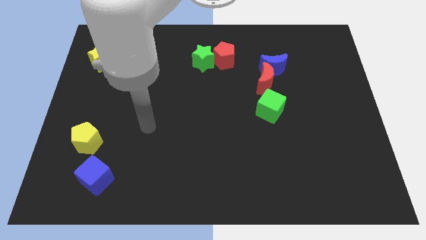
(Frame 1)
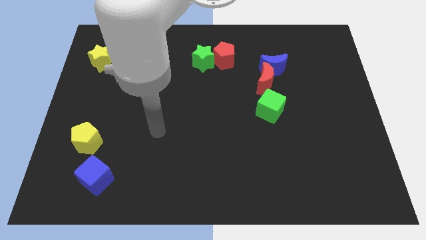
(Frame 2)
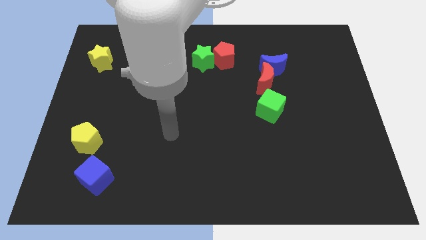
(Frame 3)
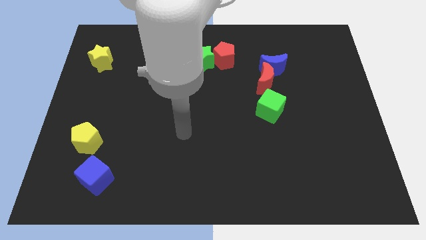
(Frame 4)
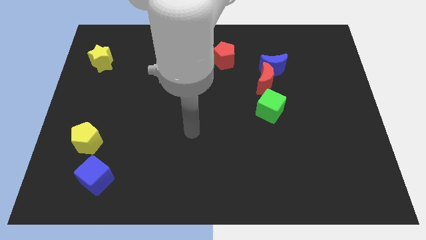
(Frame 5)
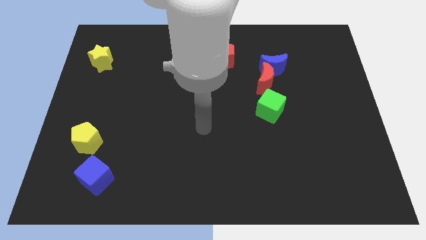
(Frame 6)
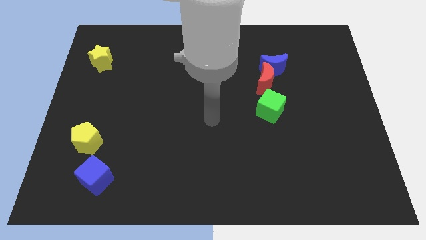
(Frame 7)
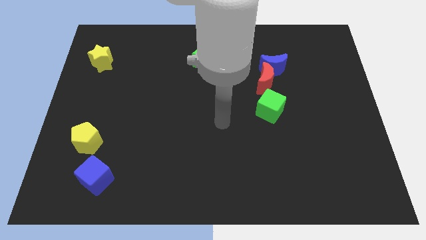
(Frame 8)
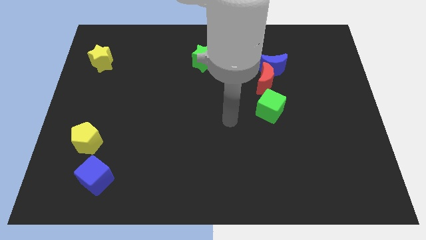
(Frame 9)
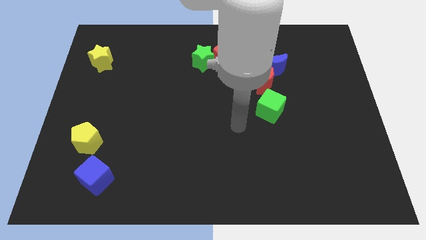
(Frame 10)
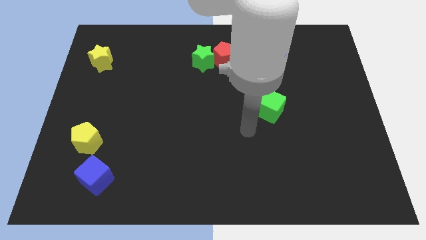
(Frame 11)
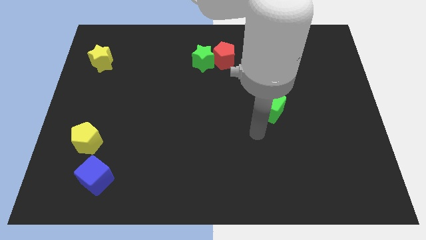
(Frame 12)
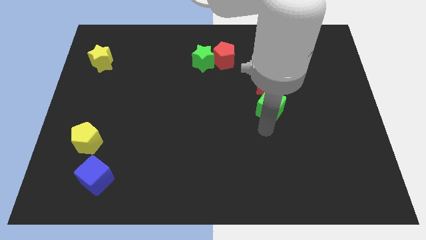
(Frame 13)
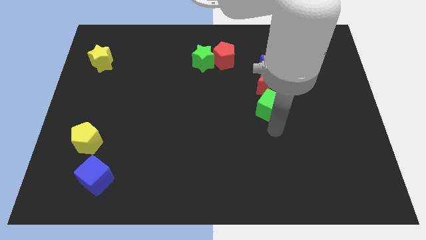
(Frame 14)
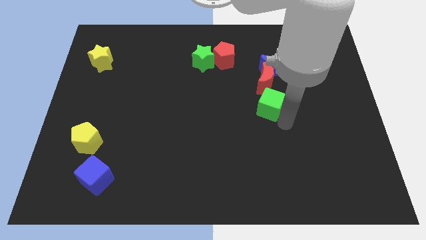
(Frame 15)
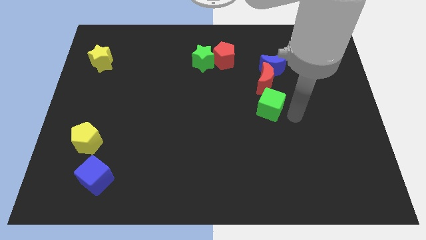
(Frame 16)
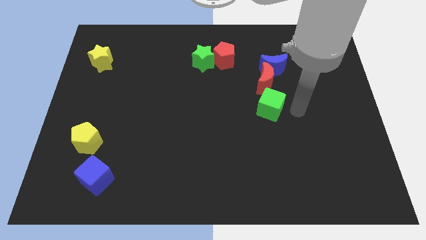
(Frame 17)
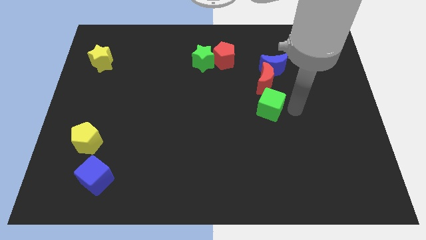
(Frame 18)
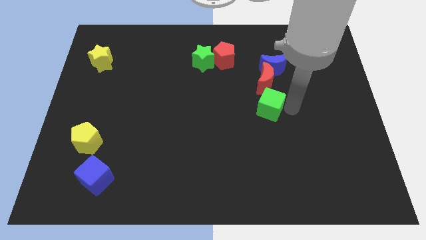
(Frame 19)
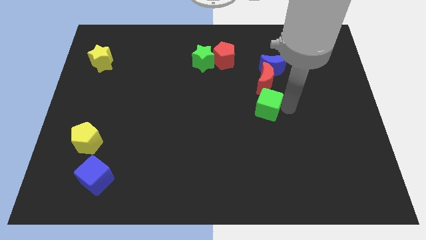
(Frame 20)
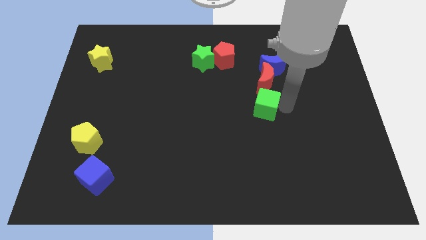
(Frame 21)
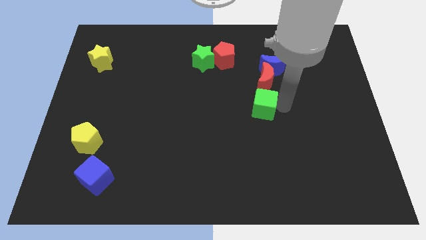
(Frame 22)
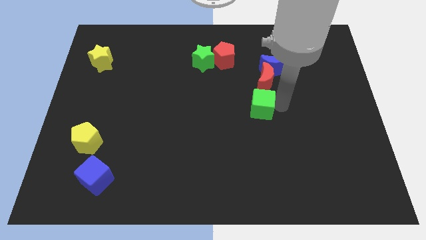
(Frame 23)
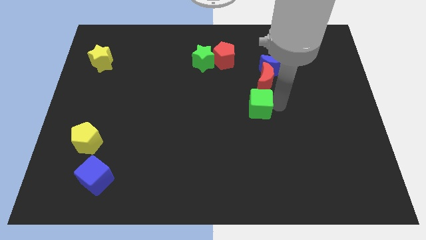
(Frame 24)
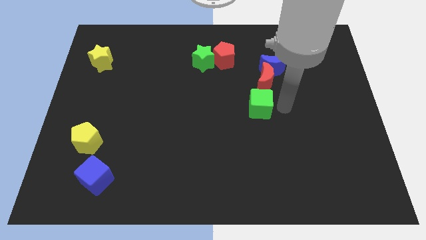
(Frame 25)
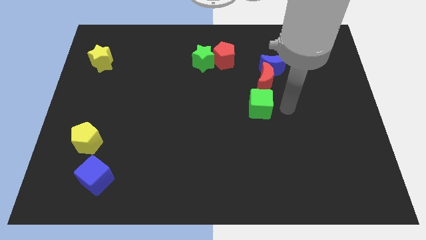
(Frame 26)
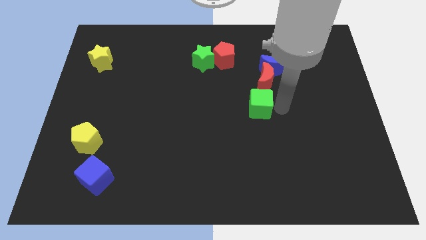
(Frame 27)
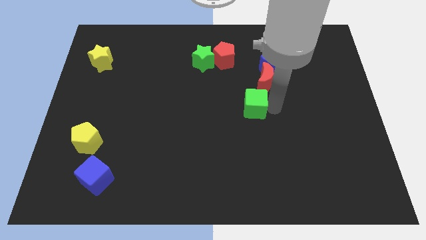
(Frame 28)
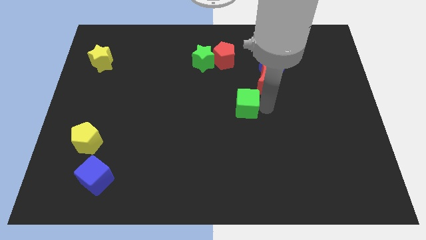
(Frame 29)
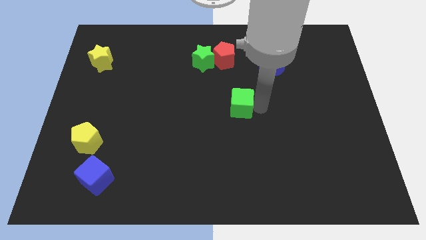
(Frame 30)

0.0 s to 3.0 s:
slide the green cube somewhat to the left

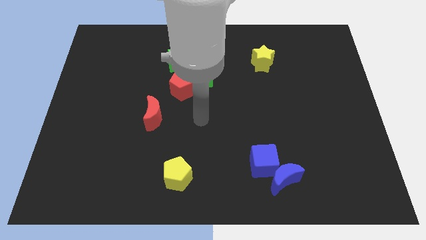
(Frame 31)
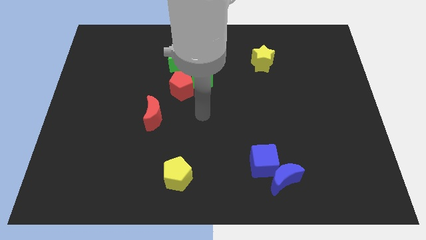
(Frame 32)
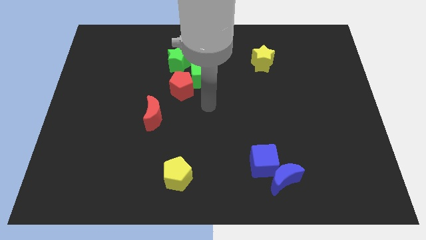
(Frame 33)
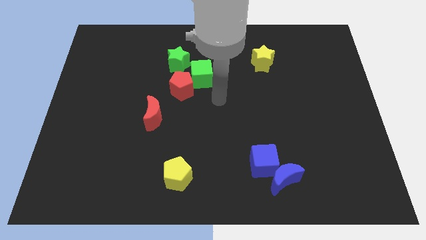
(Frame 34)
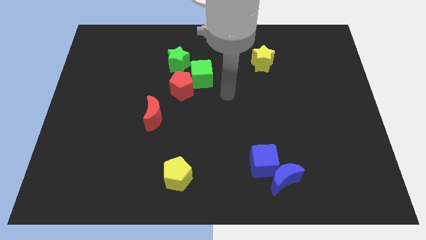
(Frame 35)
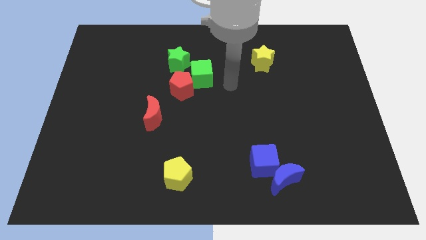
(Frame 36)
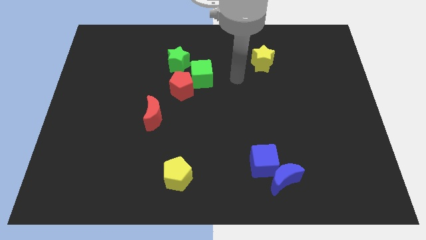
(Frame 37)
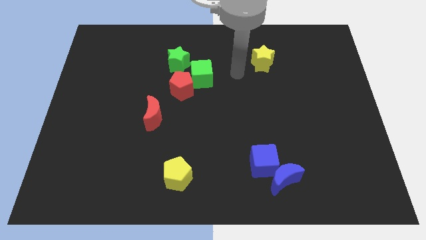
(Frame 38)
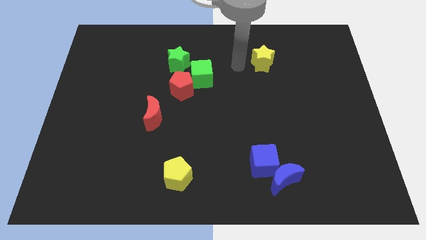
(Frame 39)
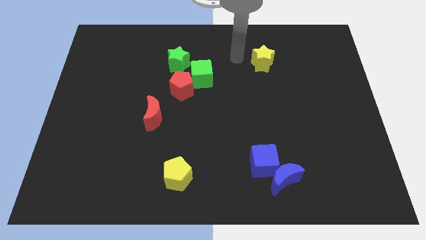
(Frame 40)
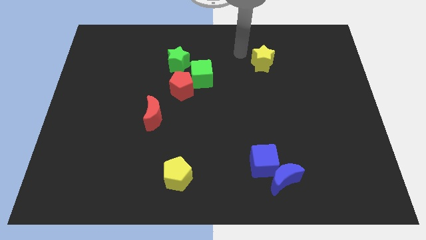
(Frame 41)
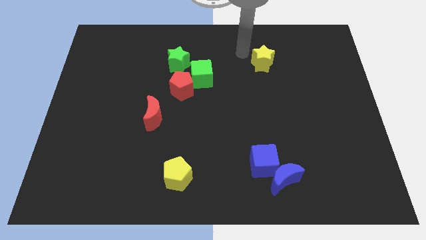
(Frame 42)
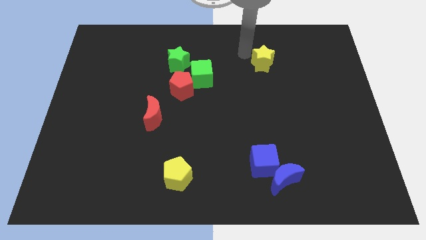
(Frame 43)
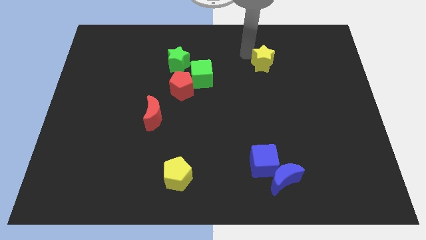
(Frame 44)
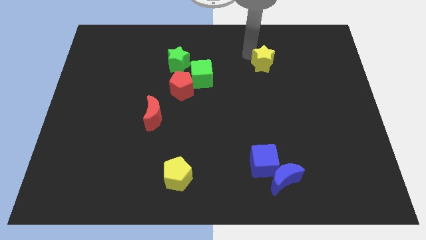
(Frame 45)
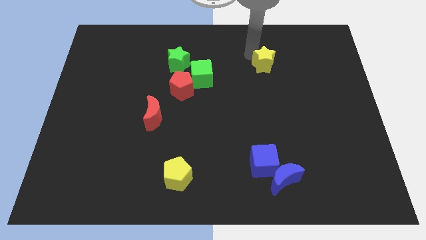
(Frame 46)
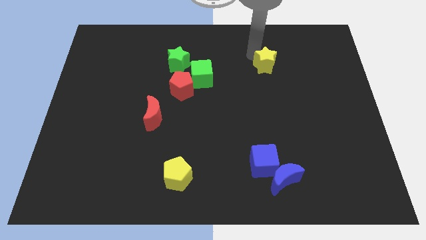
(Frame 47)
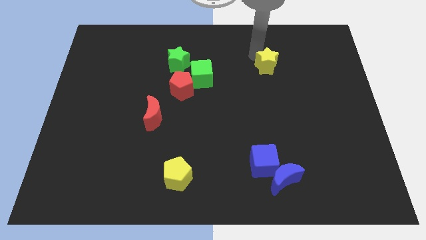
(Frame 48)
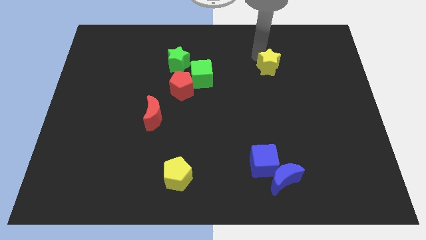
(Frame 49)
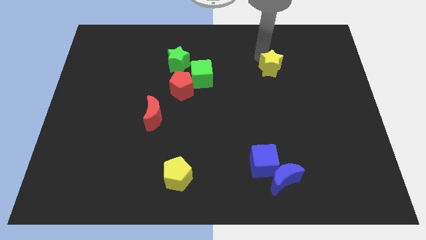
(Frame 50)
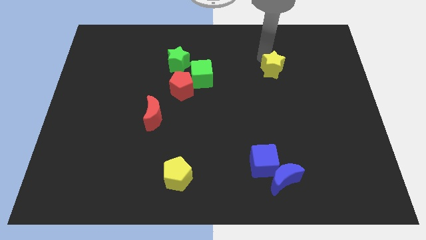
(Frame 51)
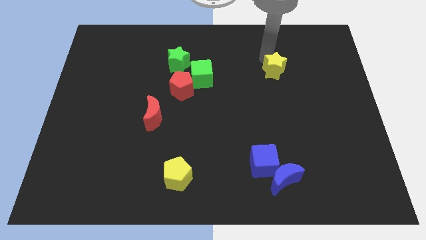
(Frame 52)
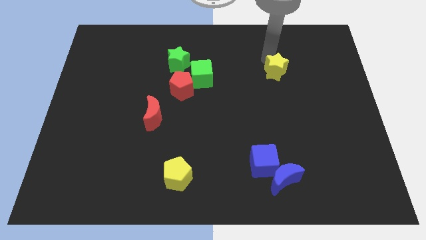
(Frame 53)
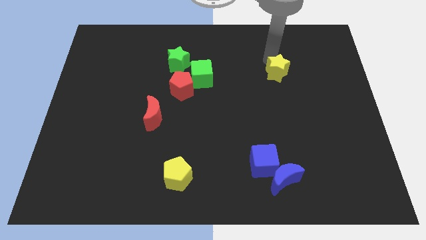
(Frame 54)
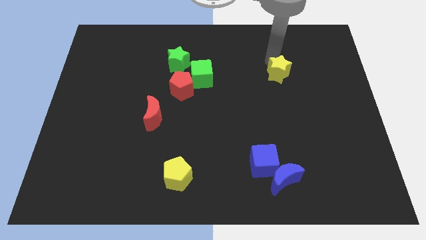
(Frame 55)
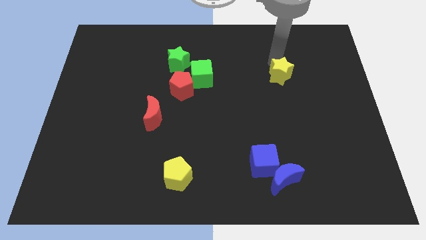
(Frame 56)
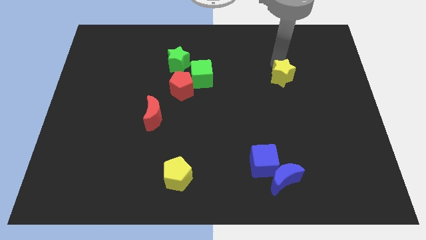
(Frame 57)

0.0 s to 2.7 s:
push the yellow star downwards and to the right slightly

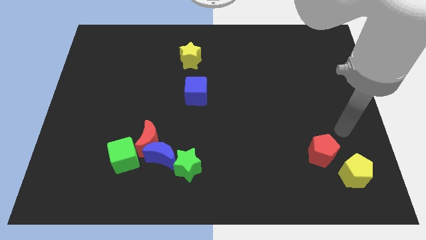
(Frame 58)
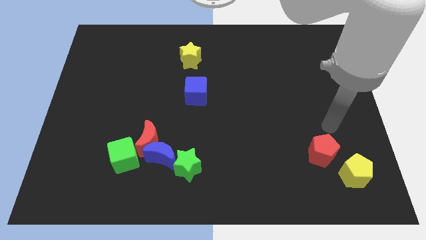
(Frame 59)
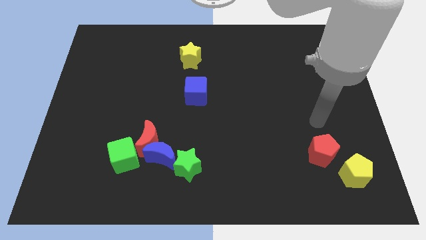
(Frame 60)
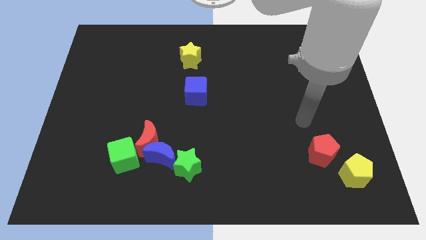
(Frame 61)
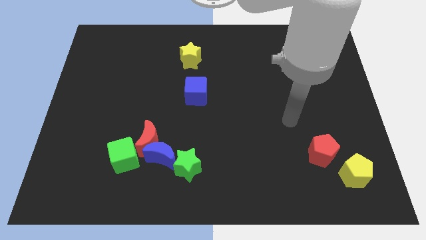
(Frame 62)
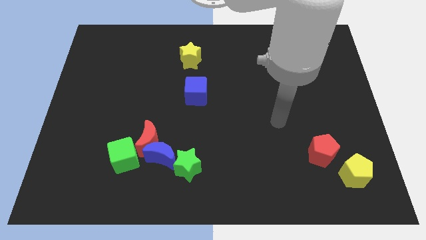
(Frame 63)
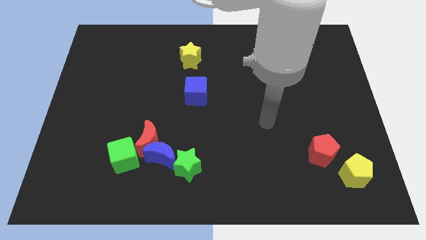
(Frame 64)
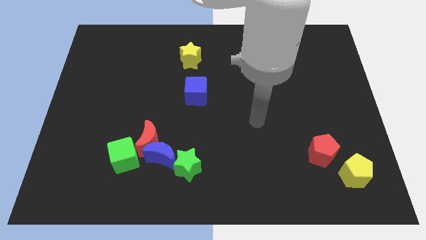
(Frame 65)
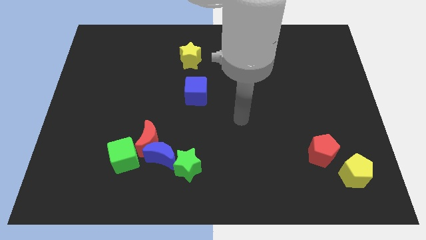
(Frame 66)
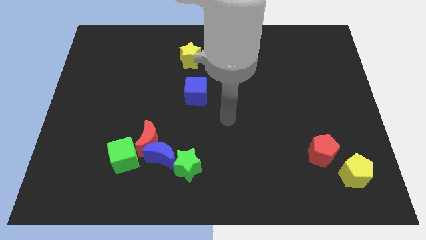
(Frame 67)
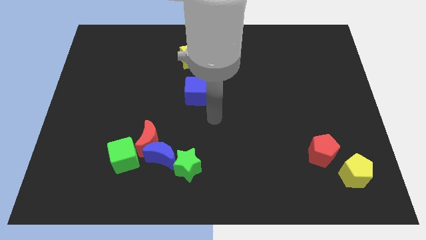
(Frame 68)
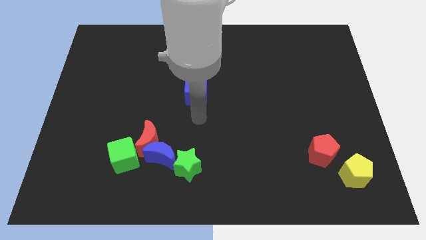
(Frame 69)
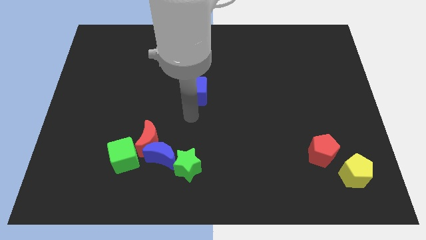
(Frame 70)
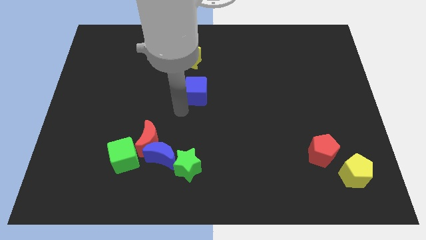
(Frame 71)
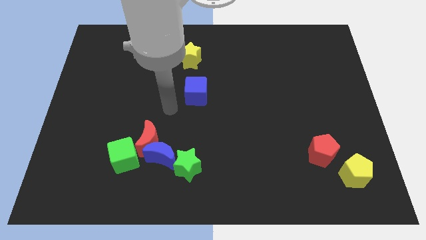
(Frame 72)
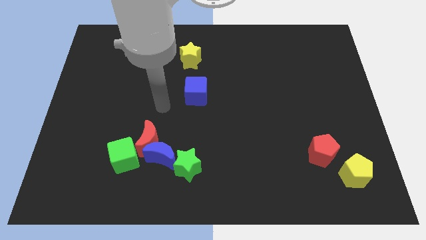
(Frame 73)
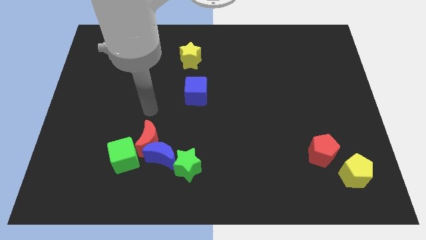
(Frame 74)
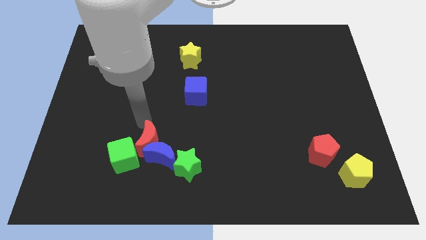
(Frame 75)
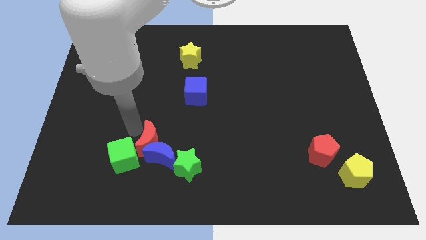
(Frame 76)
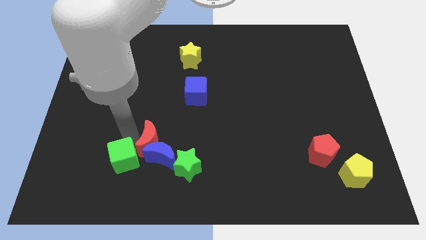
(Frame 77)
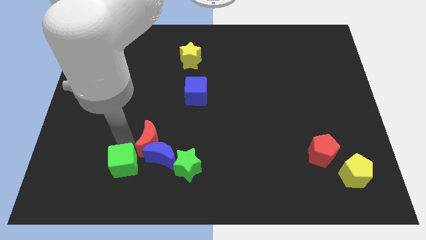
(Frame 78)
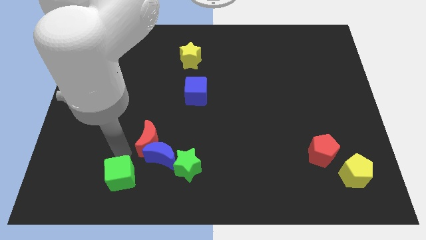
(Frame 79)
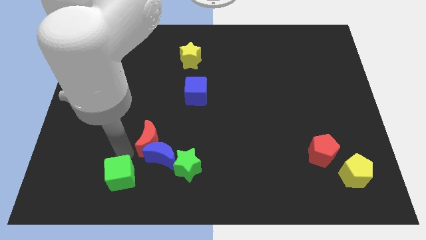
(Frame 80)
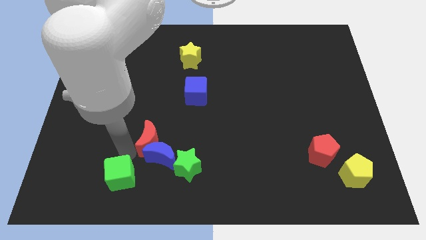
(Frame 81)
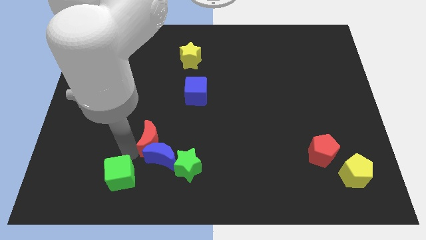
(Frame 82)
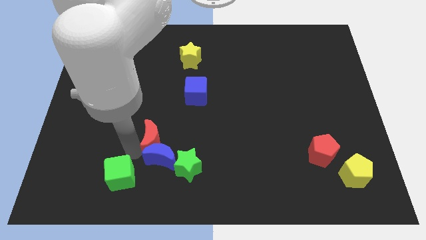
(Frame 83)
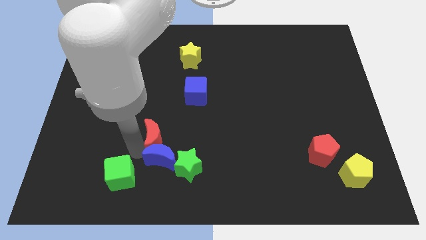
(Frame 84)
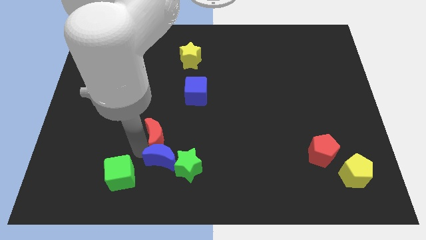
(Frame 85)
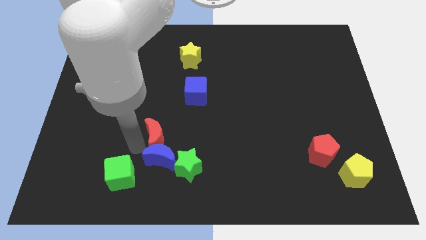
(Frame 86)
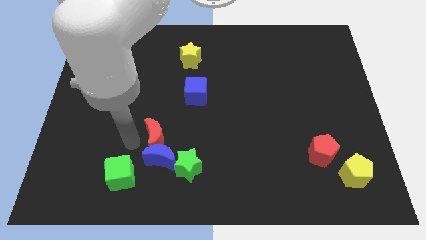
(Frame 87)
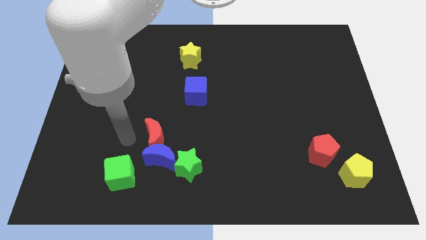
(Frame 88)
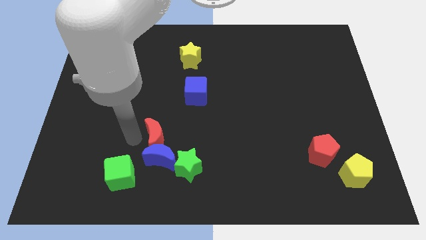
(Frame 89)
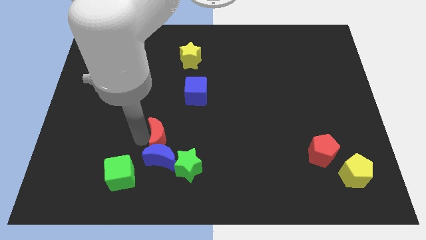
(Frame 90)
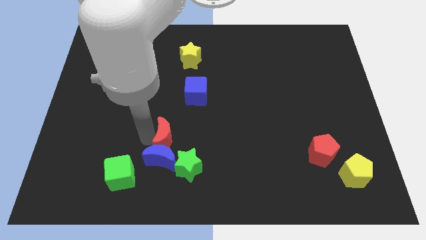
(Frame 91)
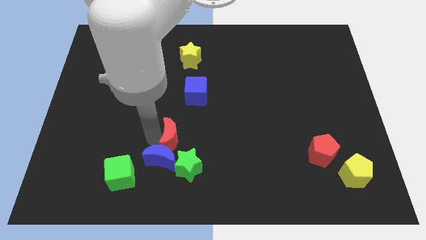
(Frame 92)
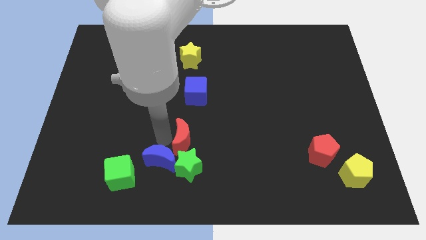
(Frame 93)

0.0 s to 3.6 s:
slightly push the red moon to the right
